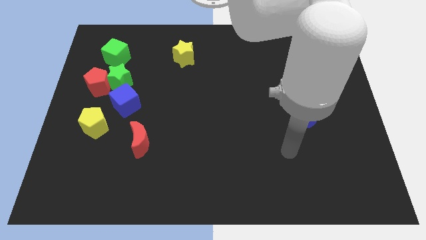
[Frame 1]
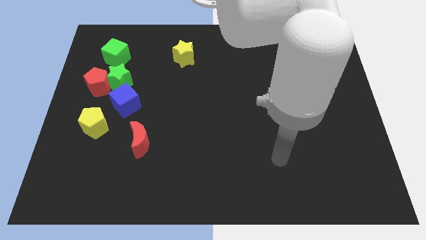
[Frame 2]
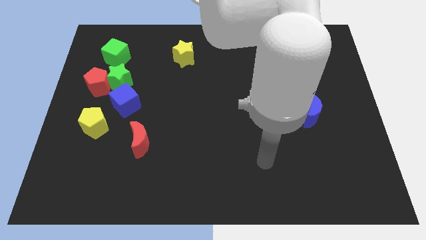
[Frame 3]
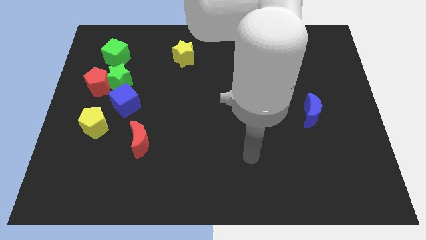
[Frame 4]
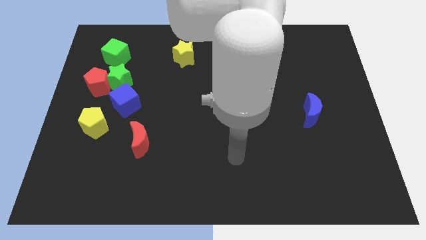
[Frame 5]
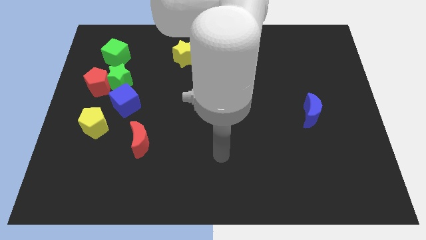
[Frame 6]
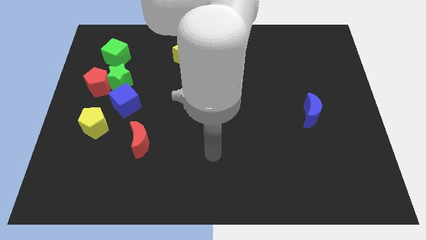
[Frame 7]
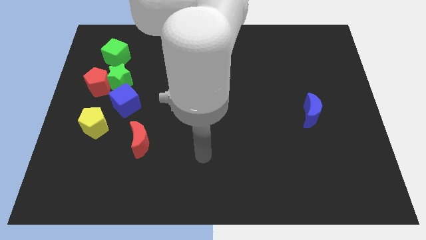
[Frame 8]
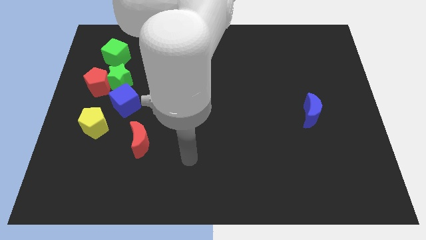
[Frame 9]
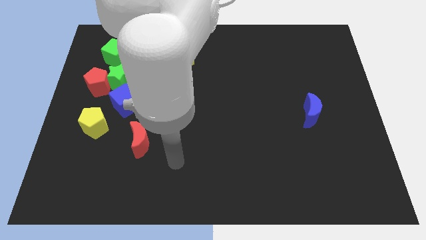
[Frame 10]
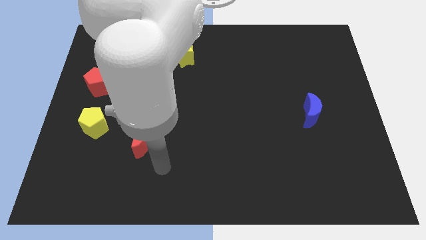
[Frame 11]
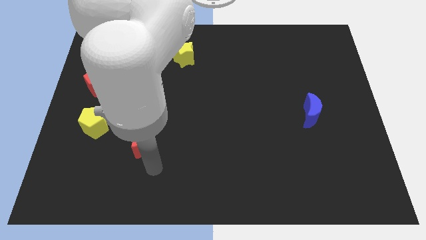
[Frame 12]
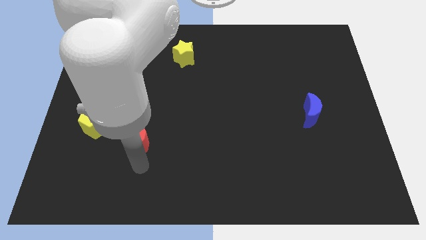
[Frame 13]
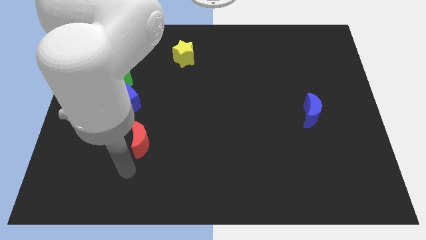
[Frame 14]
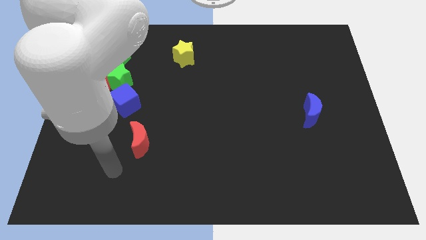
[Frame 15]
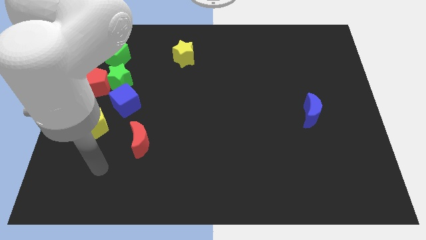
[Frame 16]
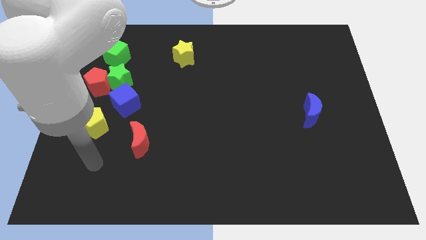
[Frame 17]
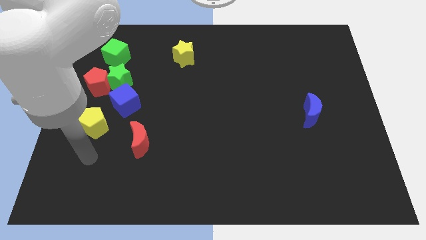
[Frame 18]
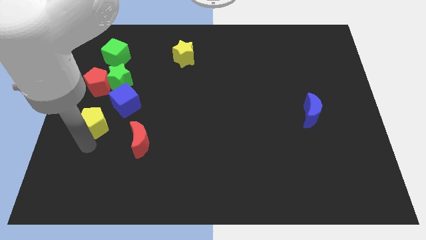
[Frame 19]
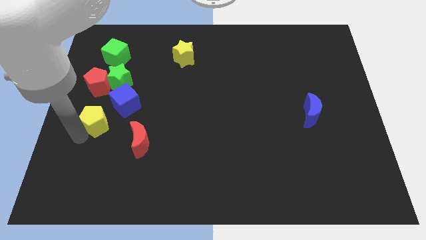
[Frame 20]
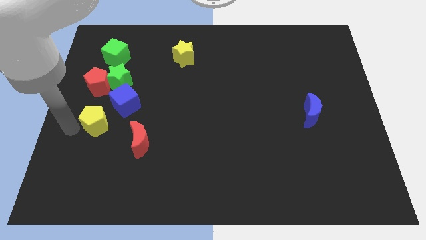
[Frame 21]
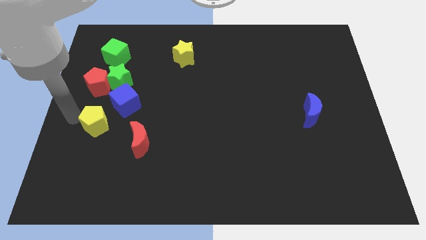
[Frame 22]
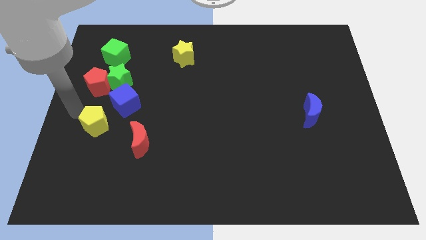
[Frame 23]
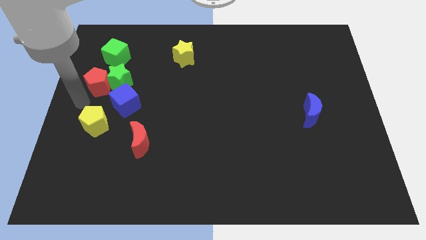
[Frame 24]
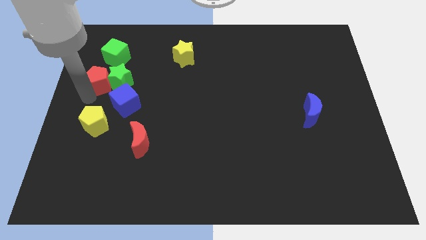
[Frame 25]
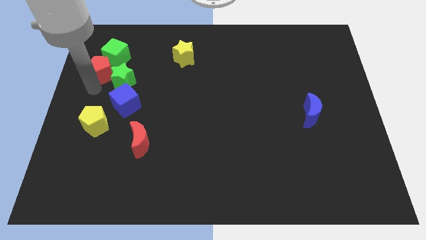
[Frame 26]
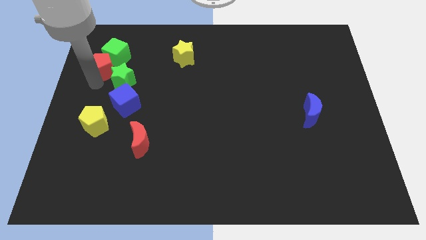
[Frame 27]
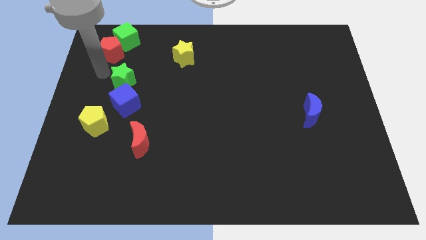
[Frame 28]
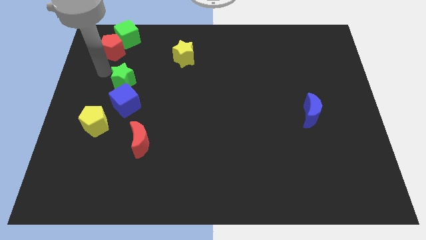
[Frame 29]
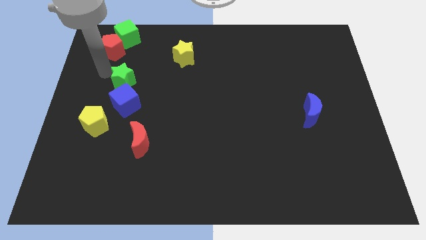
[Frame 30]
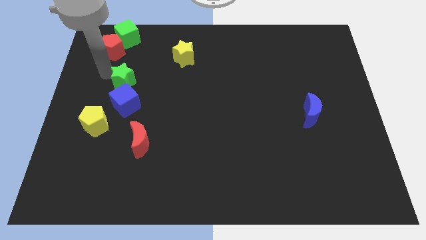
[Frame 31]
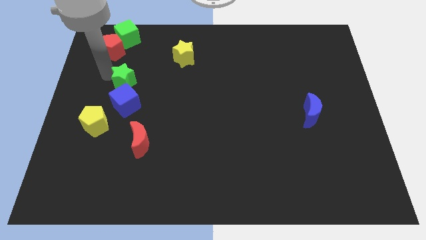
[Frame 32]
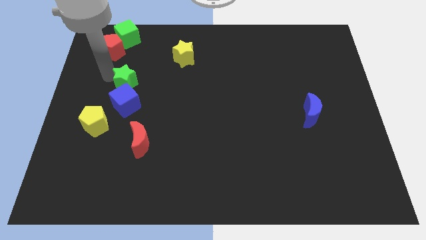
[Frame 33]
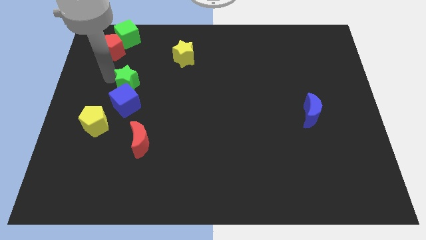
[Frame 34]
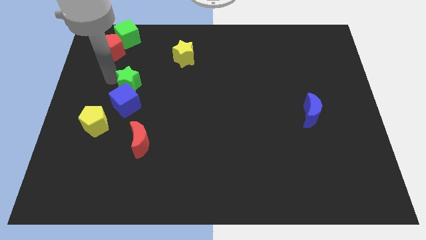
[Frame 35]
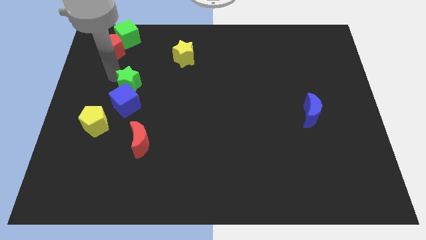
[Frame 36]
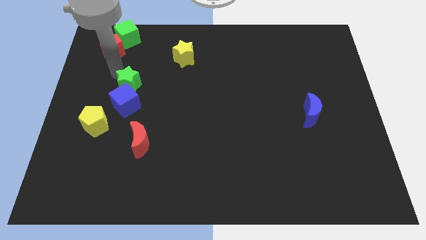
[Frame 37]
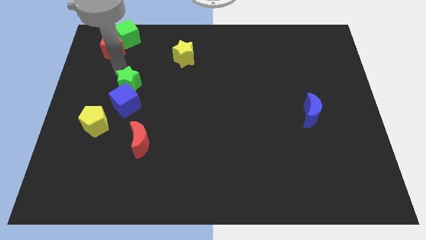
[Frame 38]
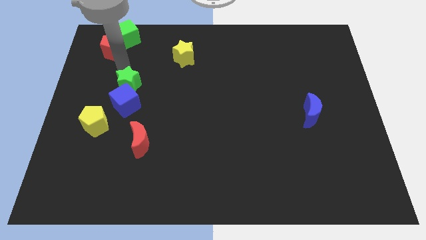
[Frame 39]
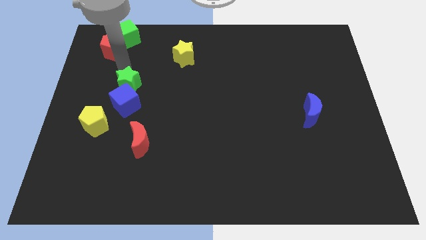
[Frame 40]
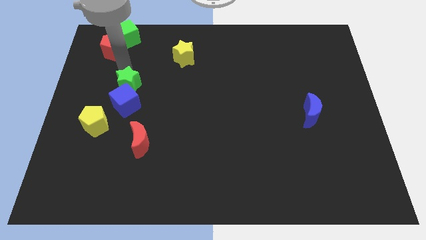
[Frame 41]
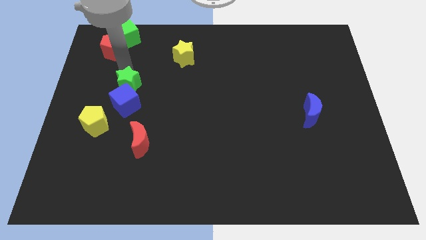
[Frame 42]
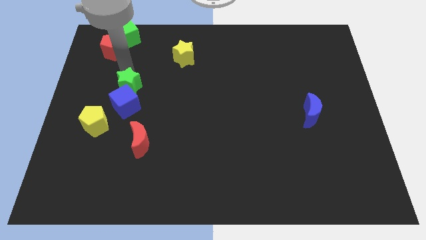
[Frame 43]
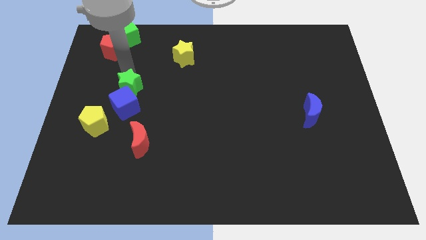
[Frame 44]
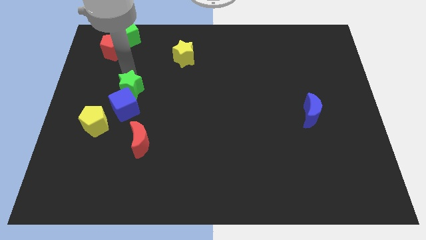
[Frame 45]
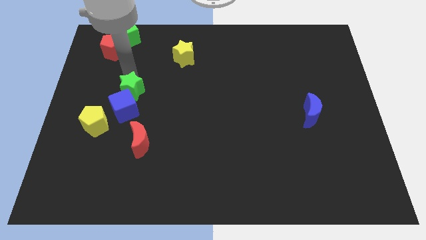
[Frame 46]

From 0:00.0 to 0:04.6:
move the green star away from the red pentagon, blue cube, and green cube

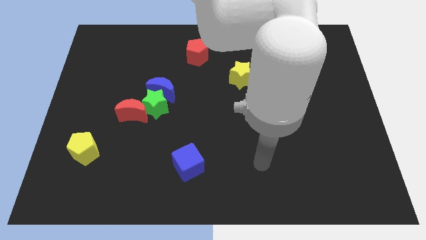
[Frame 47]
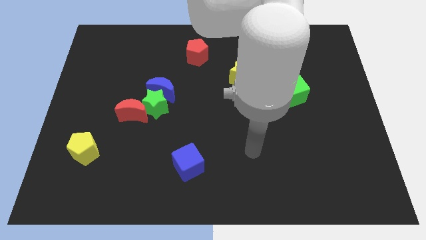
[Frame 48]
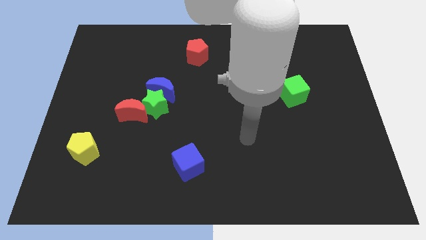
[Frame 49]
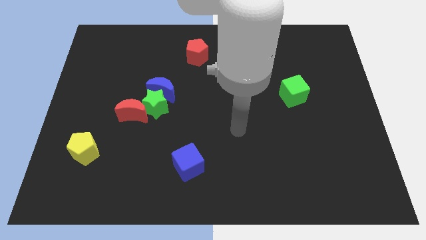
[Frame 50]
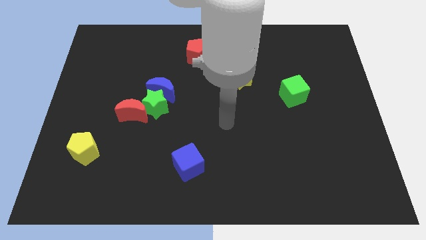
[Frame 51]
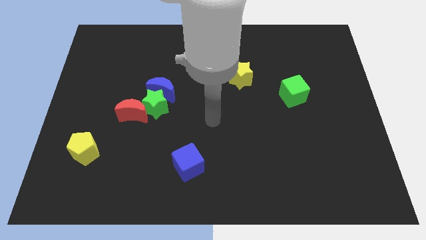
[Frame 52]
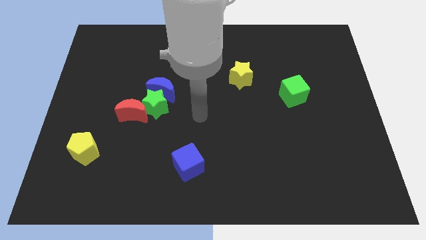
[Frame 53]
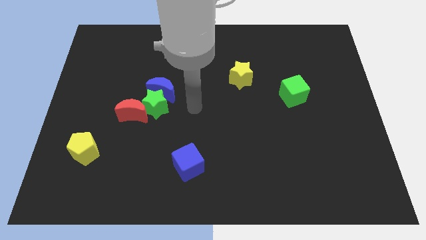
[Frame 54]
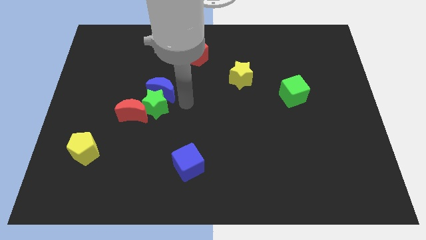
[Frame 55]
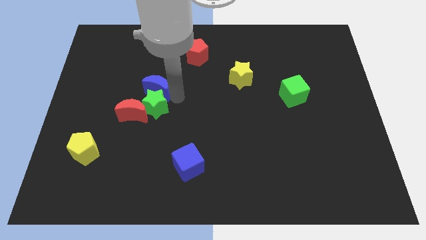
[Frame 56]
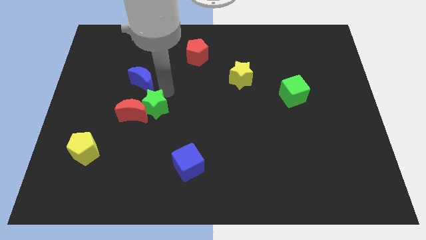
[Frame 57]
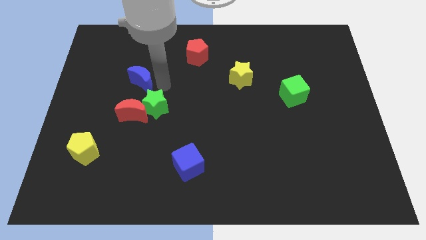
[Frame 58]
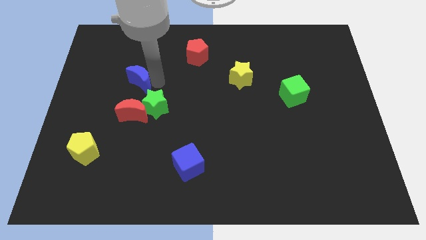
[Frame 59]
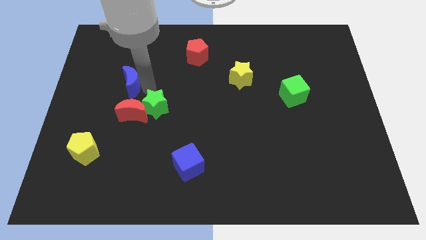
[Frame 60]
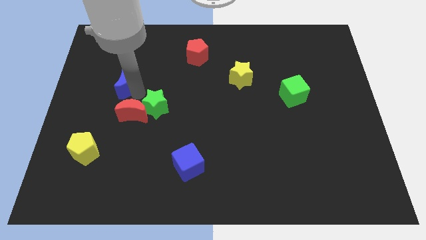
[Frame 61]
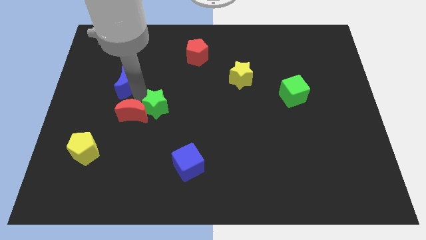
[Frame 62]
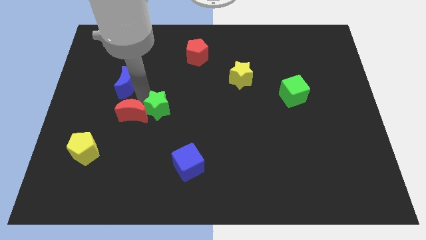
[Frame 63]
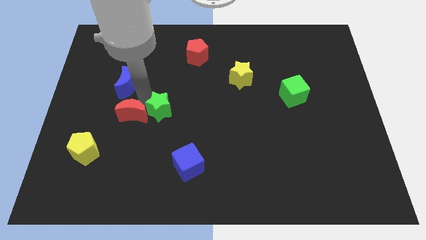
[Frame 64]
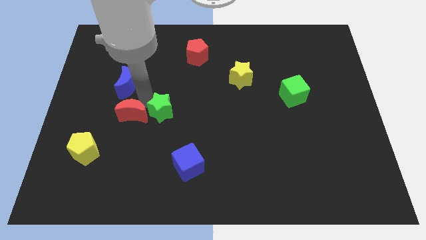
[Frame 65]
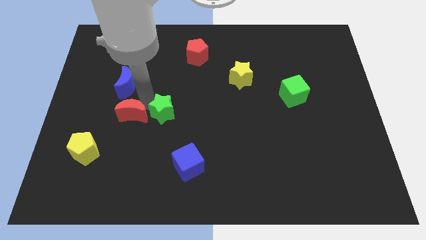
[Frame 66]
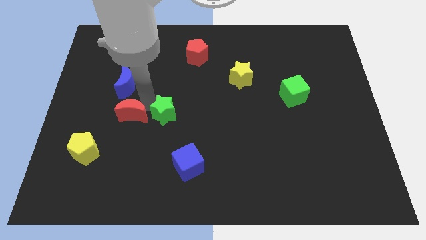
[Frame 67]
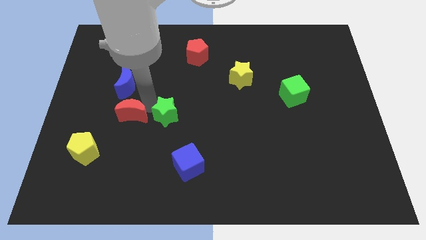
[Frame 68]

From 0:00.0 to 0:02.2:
move the green star away from the blue moon and red moon

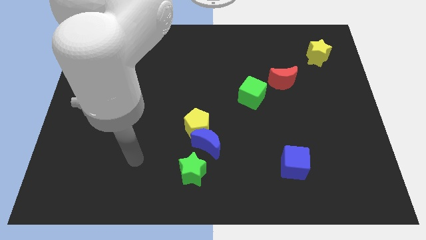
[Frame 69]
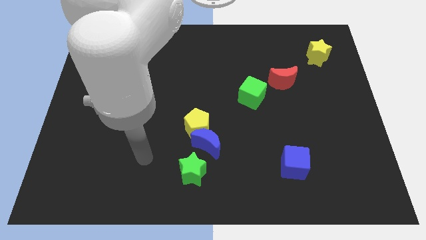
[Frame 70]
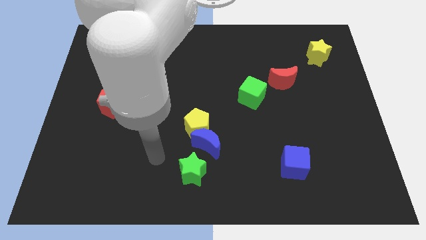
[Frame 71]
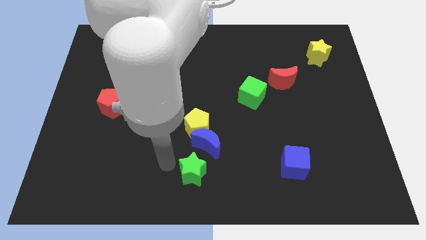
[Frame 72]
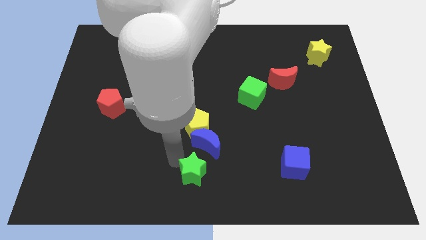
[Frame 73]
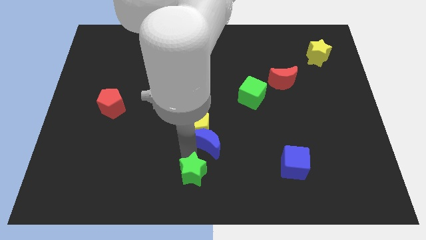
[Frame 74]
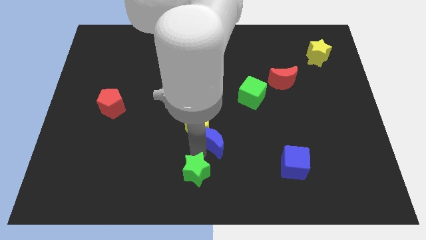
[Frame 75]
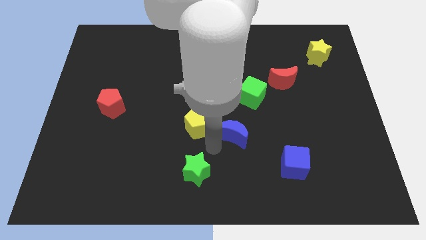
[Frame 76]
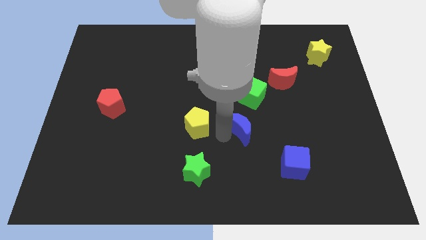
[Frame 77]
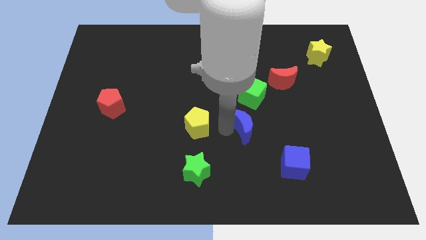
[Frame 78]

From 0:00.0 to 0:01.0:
pull the yellow pentagon apart from the blue moon

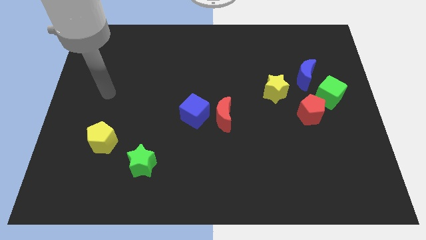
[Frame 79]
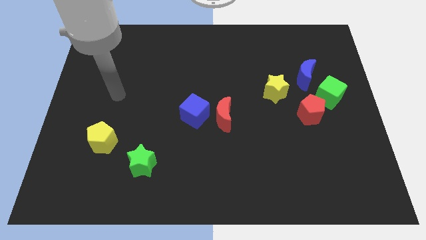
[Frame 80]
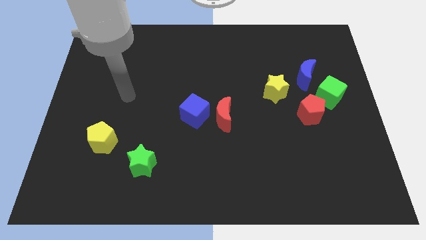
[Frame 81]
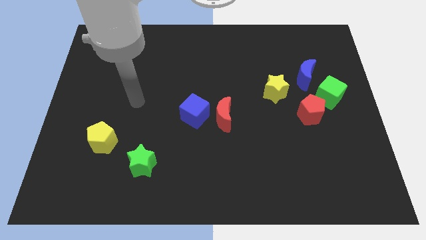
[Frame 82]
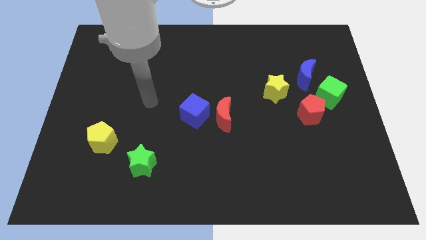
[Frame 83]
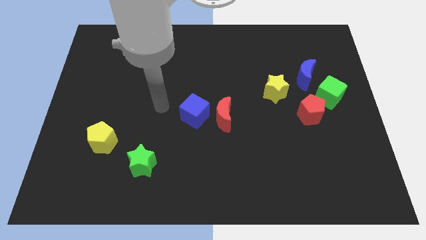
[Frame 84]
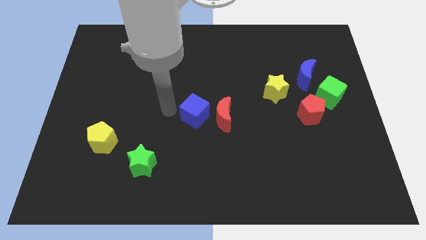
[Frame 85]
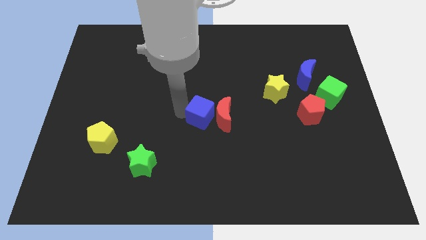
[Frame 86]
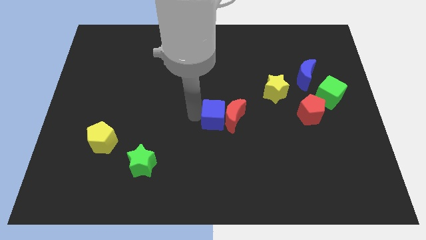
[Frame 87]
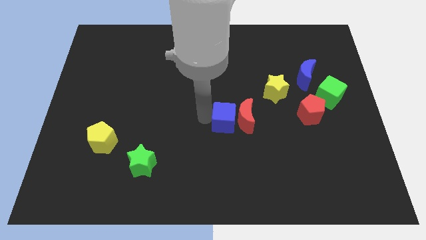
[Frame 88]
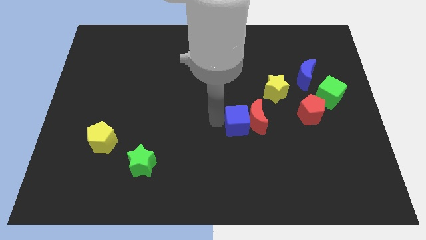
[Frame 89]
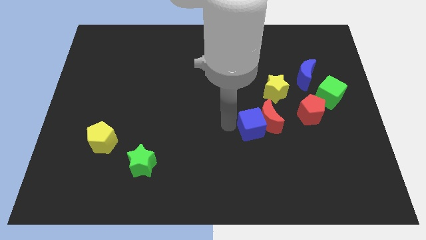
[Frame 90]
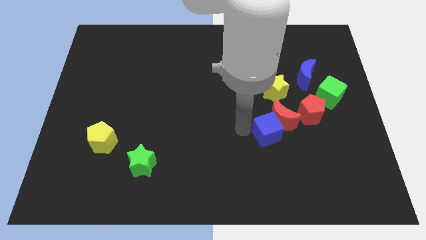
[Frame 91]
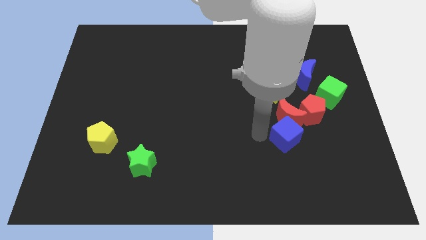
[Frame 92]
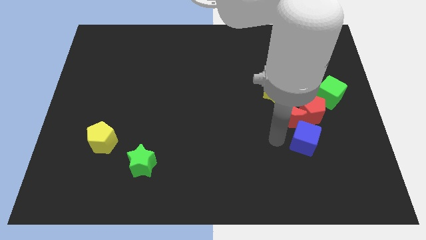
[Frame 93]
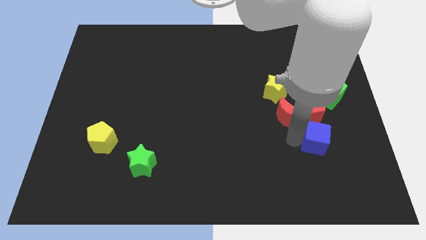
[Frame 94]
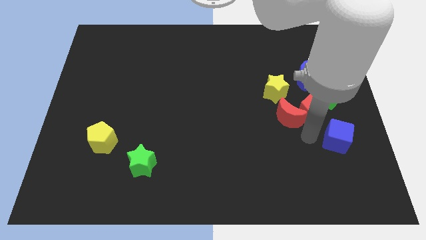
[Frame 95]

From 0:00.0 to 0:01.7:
pull the red moon apart from the blue cube
